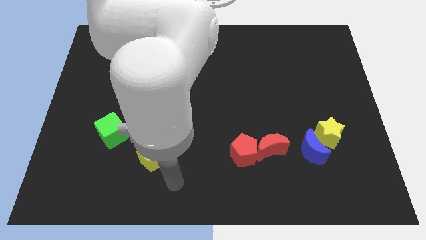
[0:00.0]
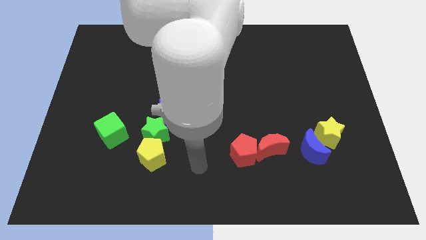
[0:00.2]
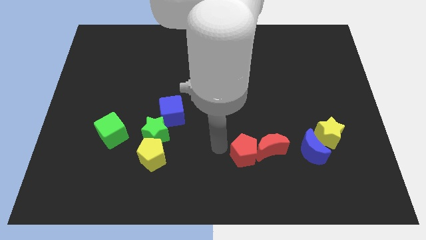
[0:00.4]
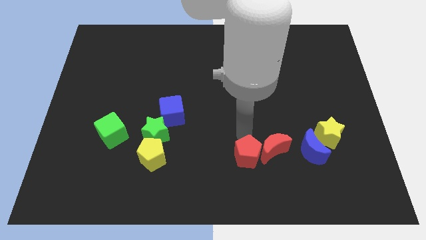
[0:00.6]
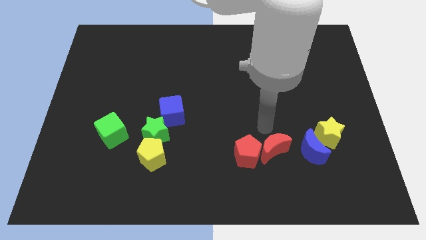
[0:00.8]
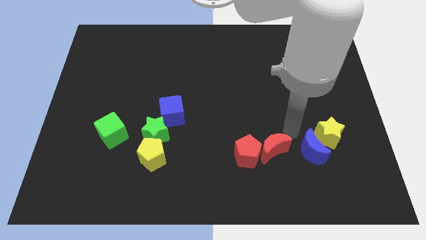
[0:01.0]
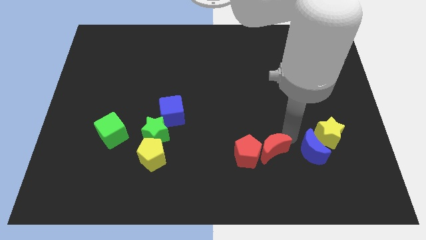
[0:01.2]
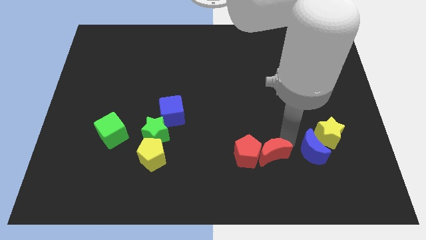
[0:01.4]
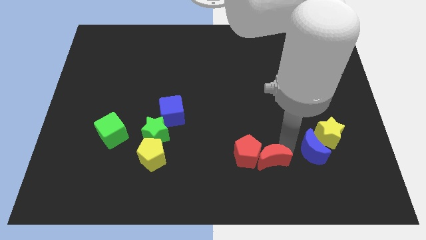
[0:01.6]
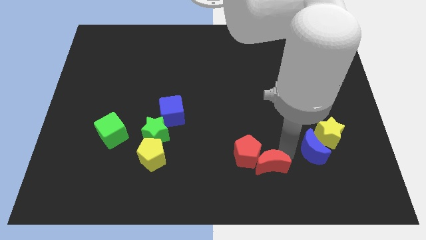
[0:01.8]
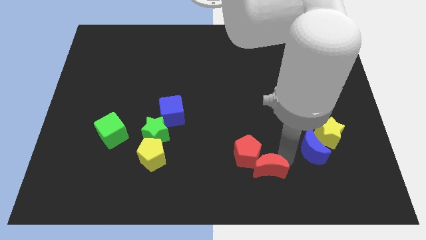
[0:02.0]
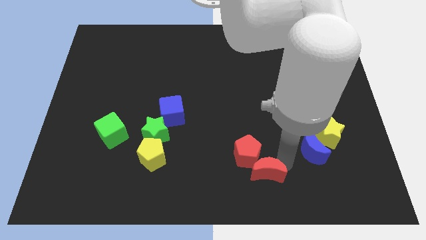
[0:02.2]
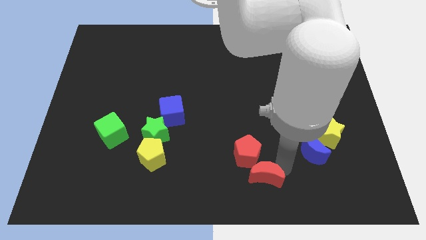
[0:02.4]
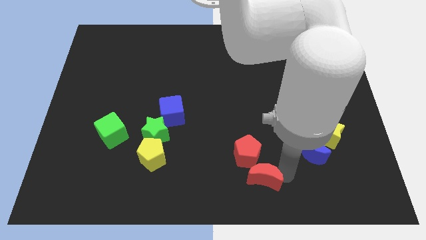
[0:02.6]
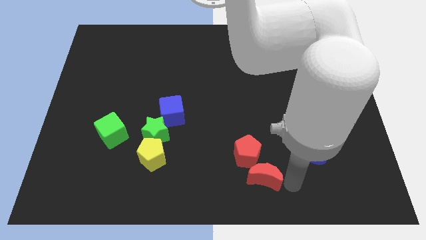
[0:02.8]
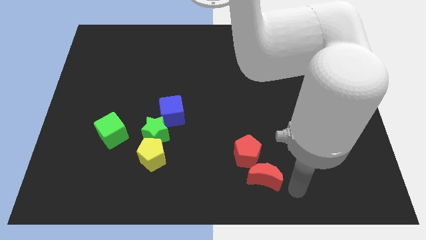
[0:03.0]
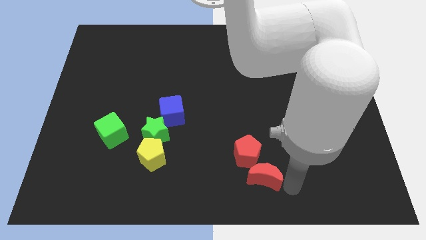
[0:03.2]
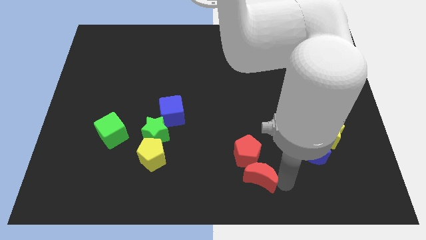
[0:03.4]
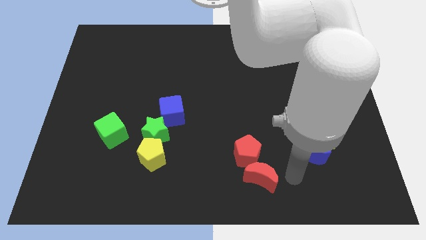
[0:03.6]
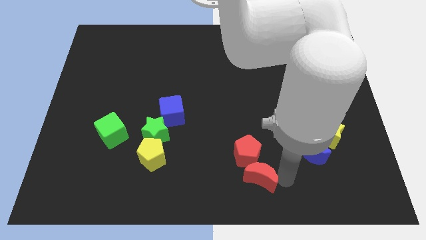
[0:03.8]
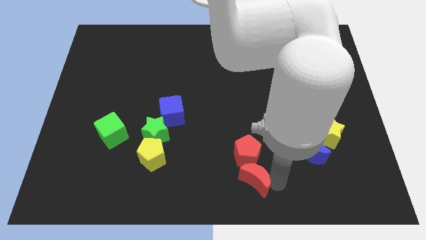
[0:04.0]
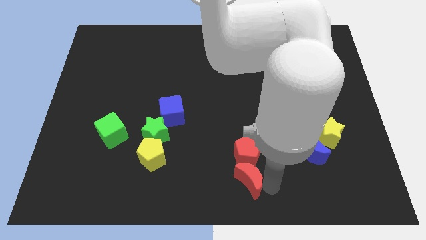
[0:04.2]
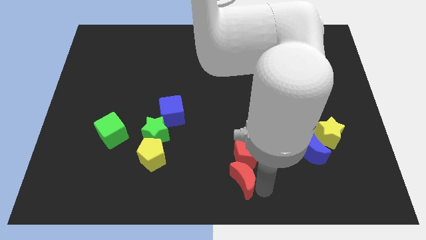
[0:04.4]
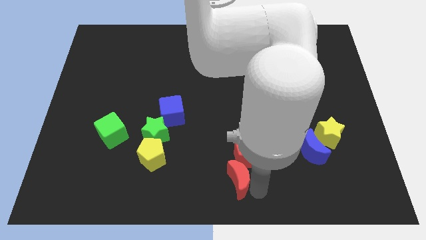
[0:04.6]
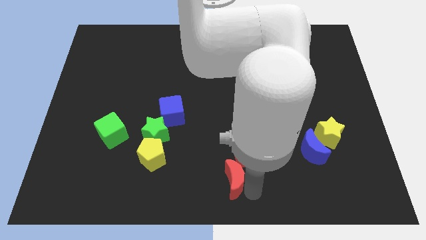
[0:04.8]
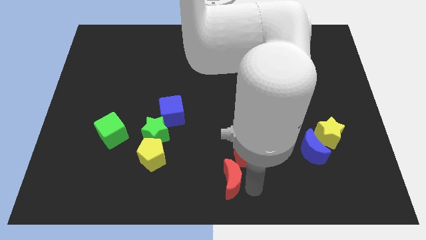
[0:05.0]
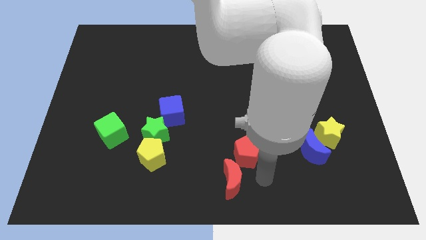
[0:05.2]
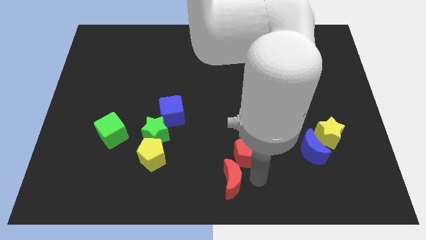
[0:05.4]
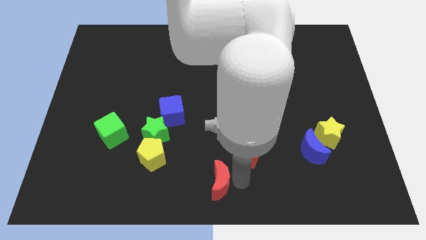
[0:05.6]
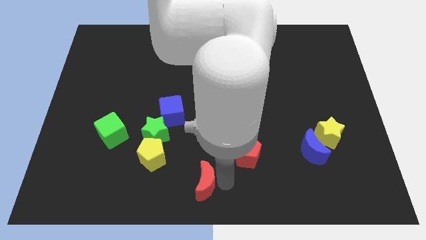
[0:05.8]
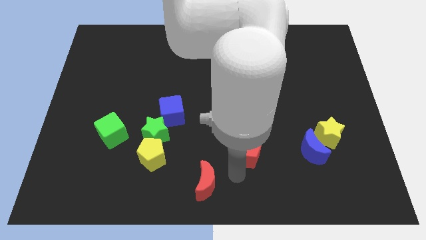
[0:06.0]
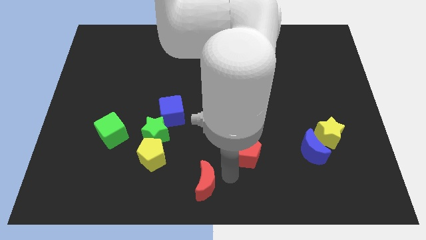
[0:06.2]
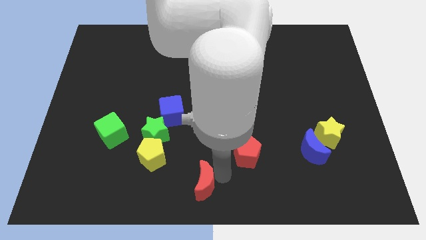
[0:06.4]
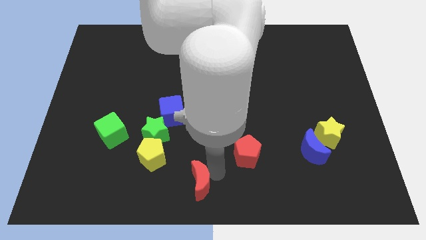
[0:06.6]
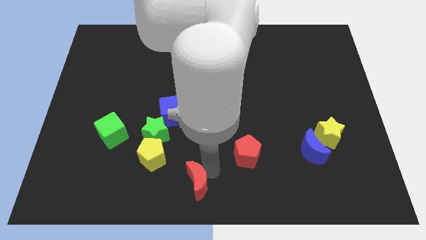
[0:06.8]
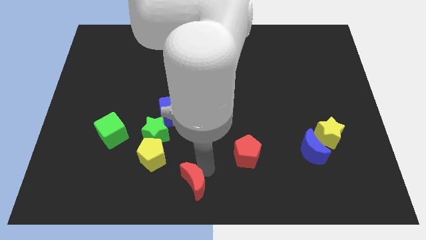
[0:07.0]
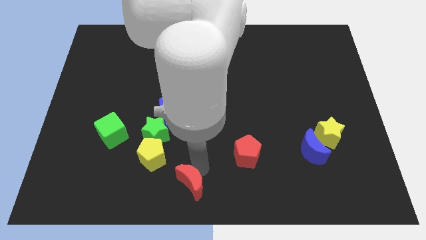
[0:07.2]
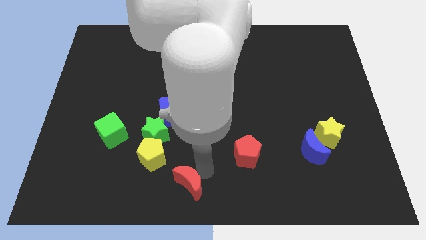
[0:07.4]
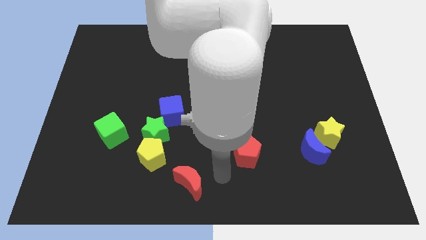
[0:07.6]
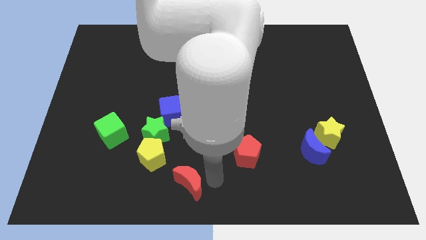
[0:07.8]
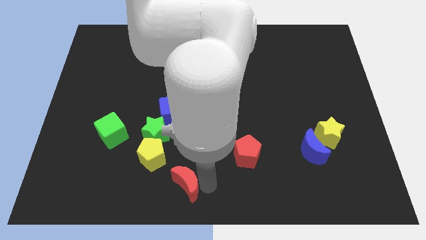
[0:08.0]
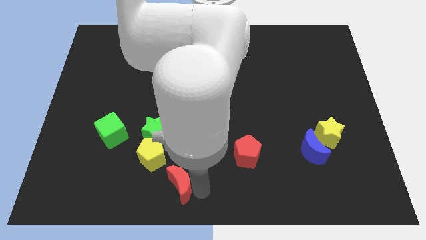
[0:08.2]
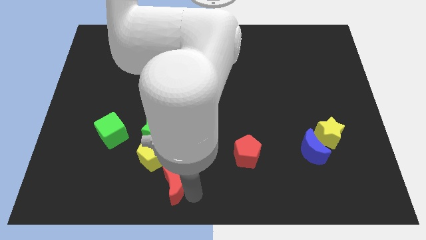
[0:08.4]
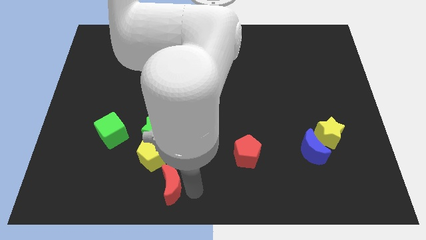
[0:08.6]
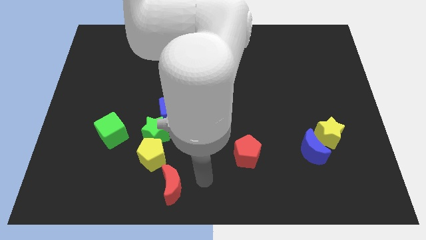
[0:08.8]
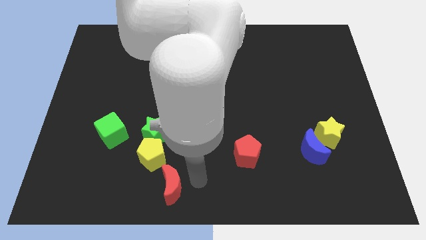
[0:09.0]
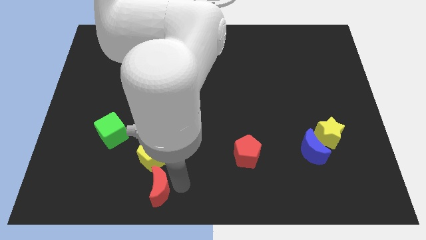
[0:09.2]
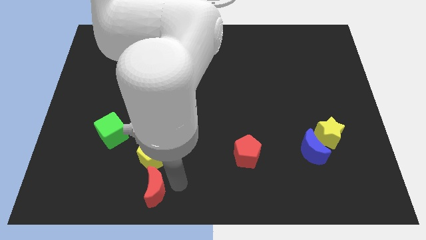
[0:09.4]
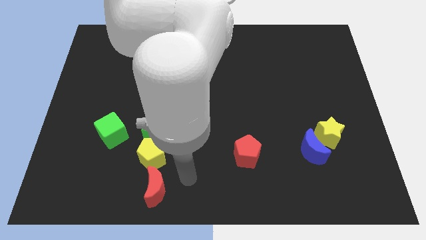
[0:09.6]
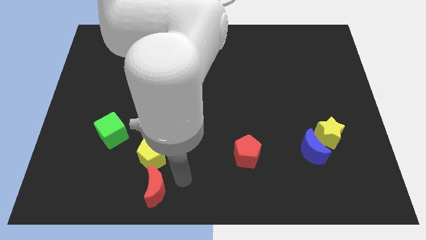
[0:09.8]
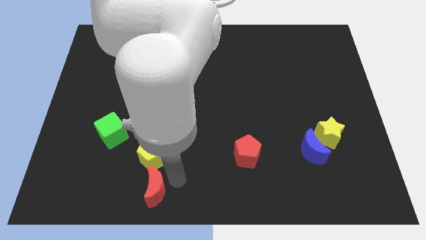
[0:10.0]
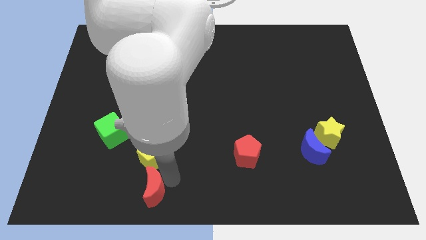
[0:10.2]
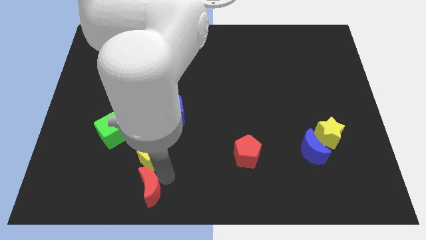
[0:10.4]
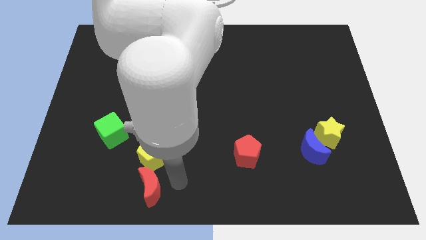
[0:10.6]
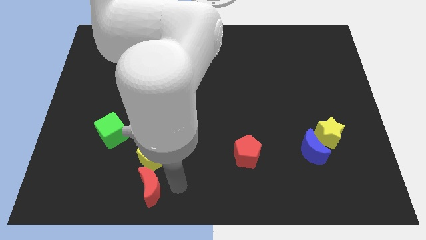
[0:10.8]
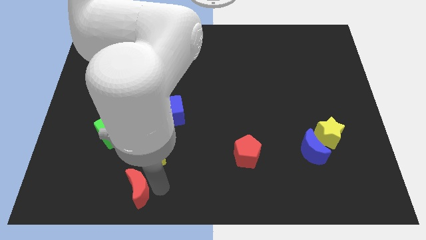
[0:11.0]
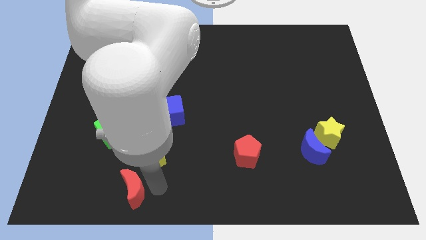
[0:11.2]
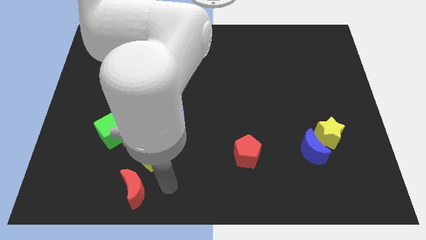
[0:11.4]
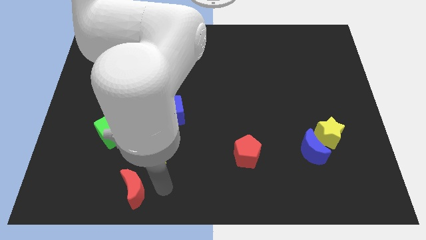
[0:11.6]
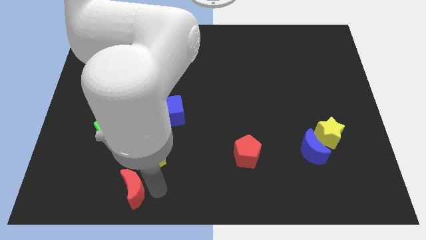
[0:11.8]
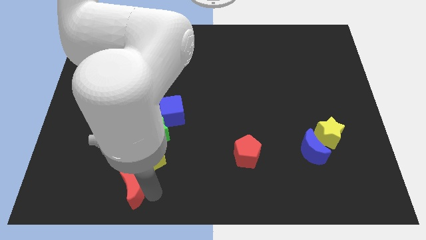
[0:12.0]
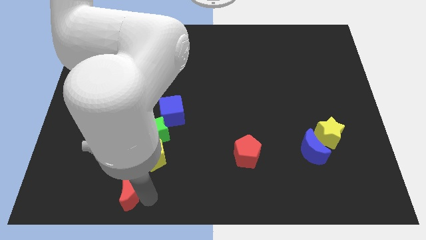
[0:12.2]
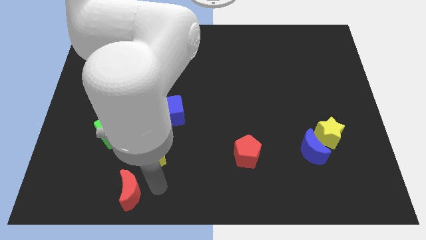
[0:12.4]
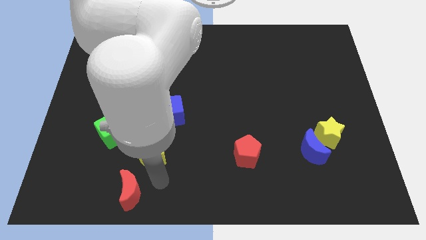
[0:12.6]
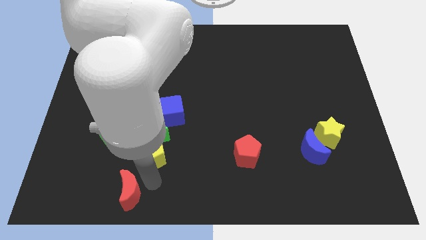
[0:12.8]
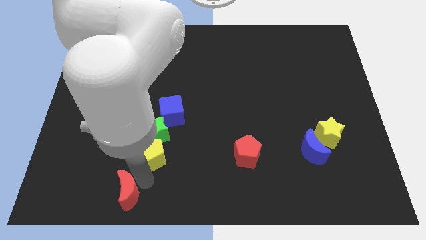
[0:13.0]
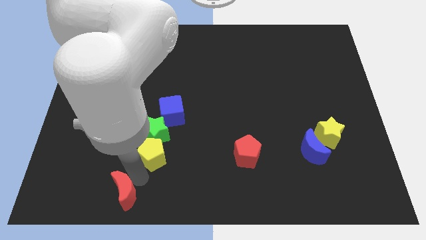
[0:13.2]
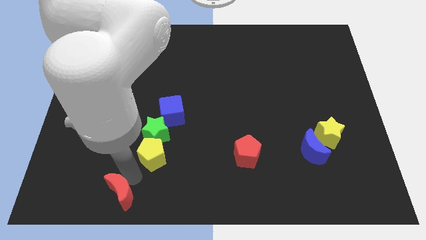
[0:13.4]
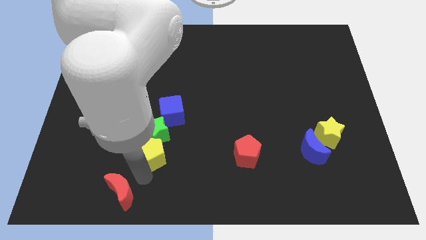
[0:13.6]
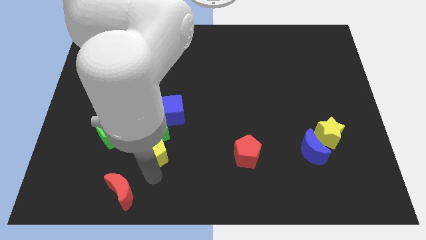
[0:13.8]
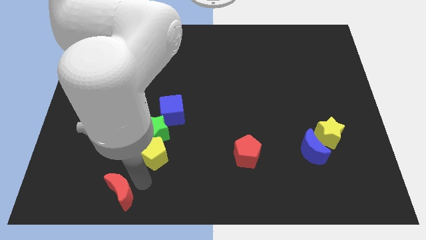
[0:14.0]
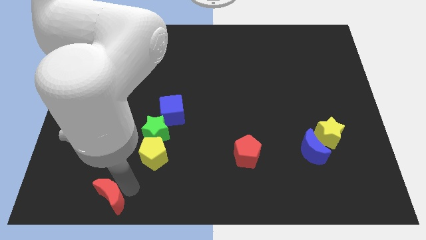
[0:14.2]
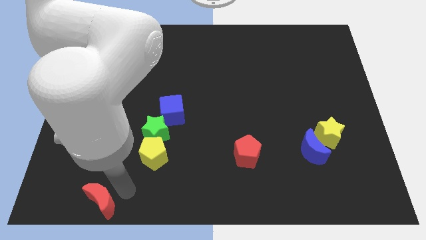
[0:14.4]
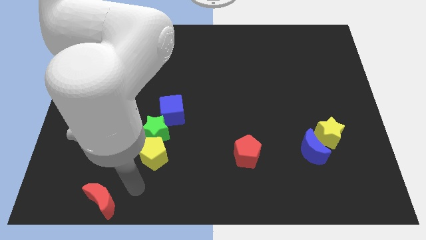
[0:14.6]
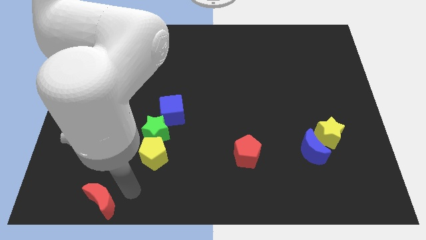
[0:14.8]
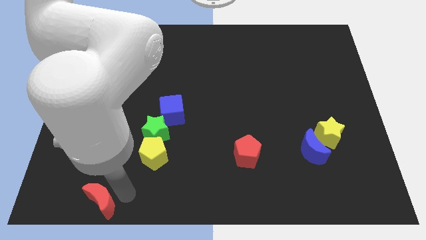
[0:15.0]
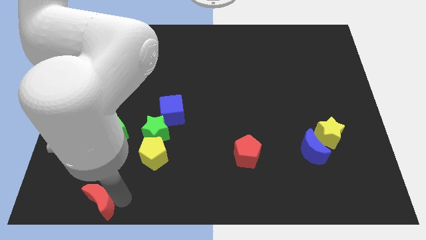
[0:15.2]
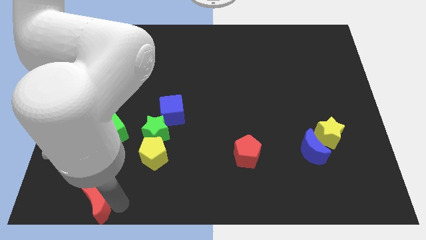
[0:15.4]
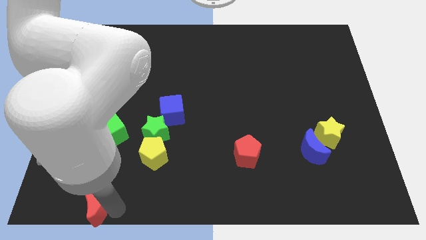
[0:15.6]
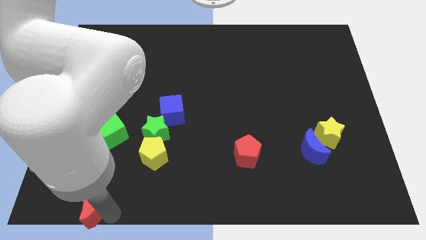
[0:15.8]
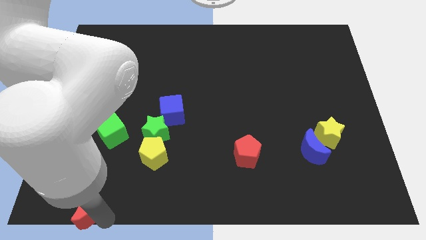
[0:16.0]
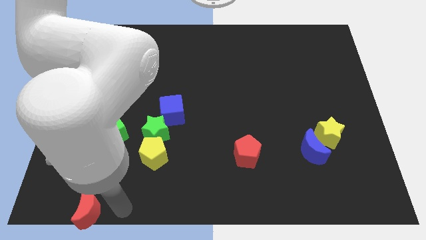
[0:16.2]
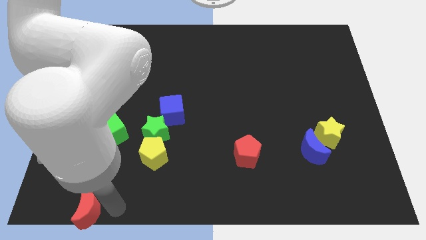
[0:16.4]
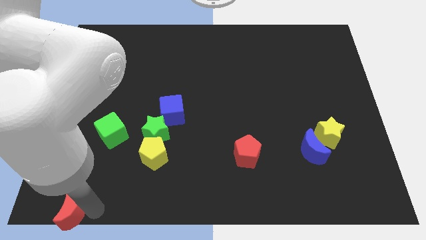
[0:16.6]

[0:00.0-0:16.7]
push the red moon to the lower left corner
